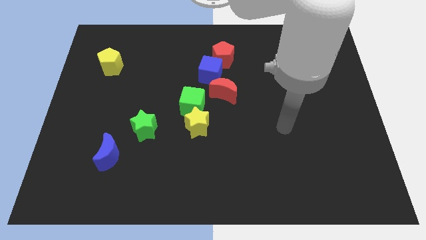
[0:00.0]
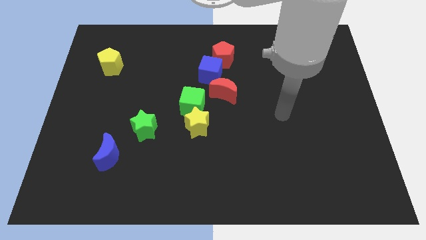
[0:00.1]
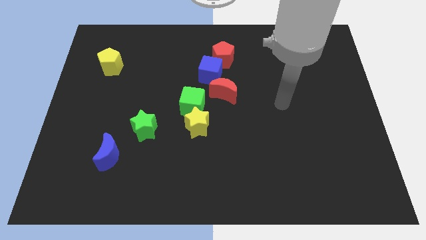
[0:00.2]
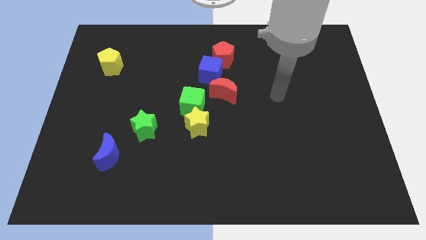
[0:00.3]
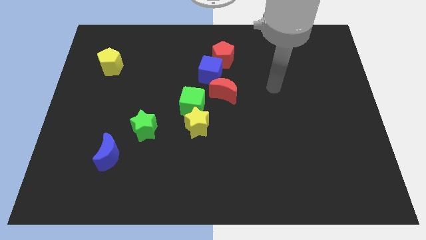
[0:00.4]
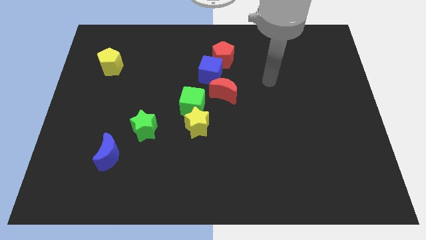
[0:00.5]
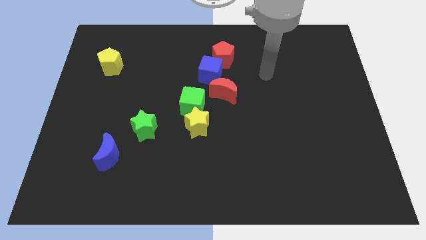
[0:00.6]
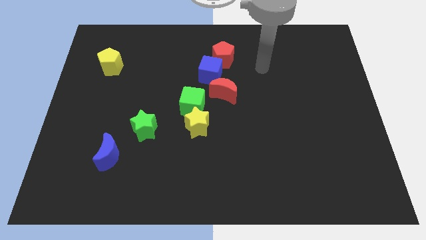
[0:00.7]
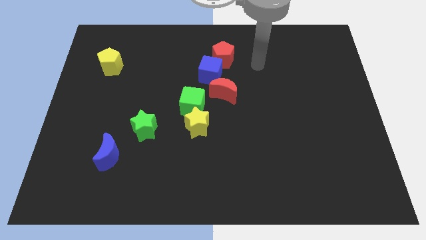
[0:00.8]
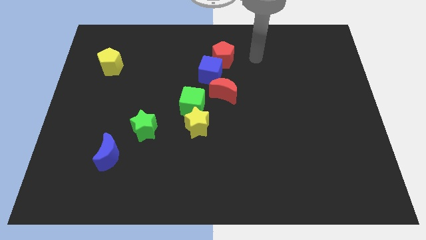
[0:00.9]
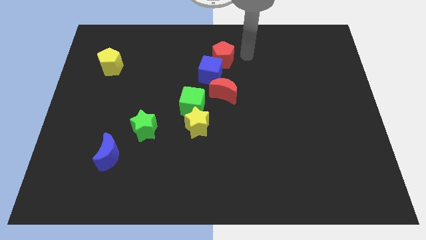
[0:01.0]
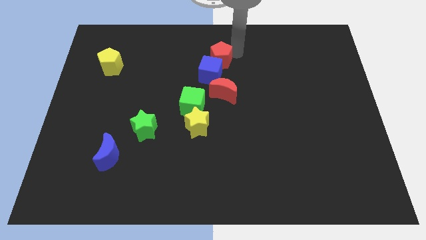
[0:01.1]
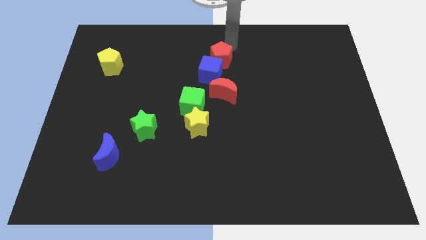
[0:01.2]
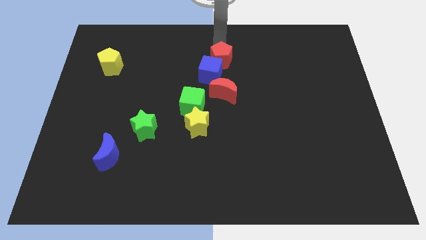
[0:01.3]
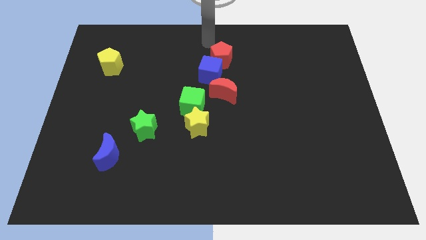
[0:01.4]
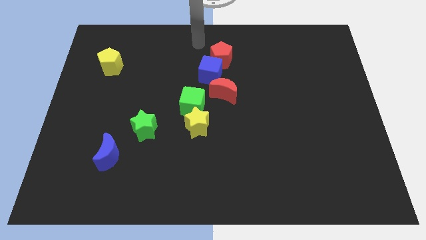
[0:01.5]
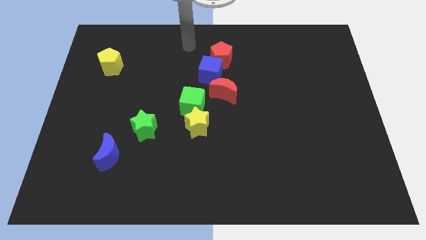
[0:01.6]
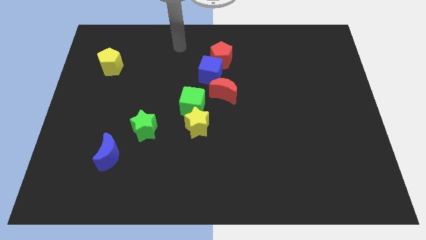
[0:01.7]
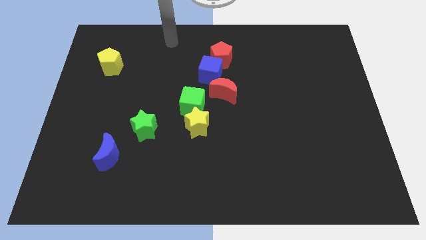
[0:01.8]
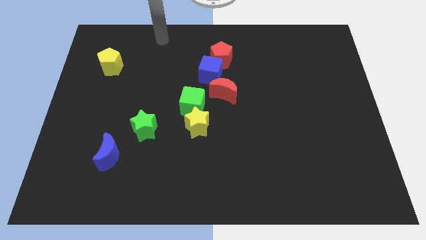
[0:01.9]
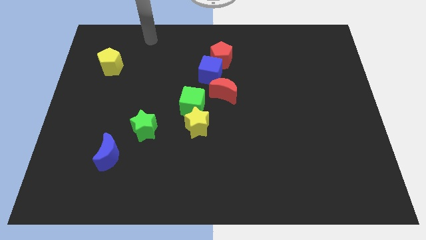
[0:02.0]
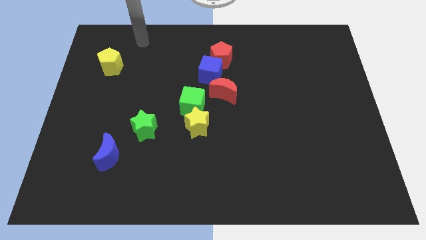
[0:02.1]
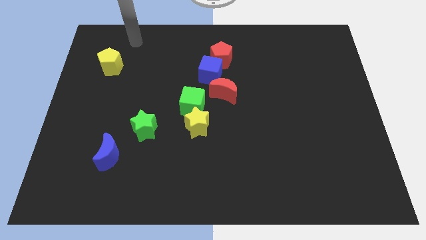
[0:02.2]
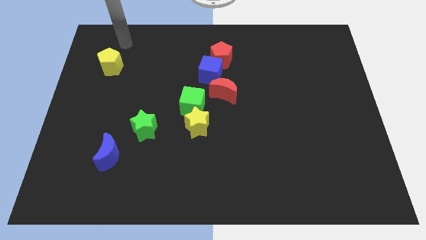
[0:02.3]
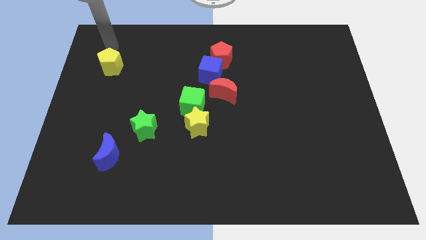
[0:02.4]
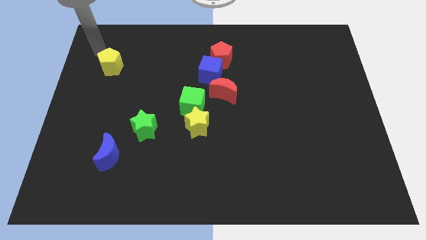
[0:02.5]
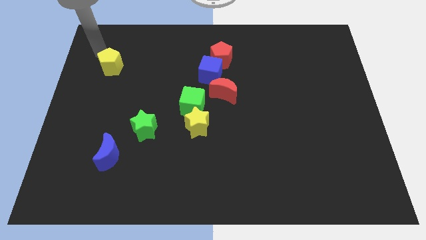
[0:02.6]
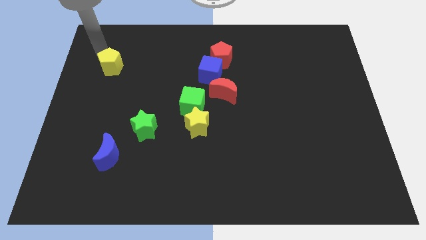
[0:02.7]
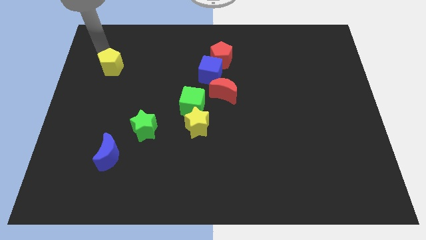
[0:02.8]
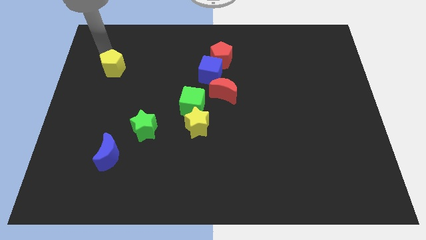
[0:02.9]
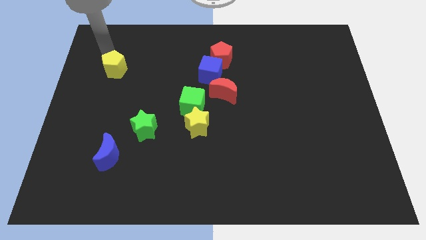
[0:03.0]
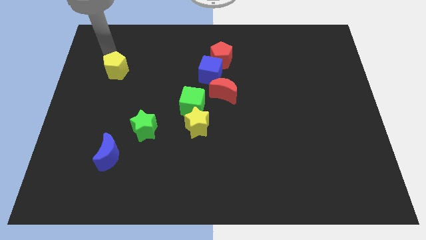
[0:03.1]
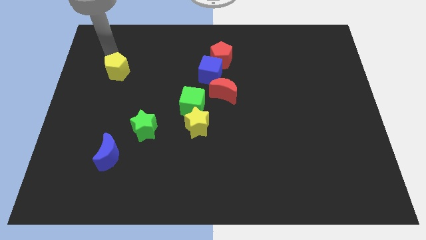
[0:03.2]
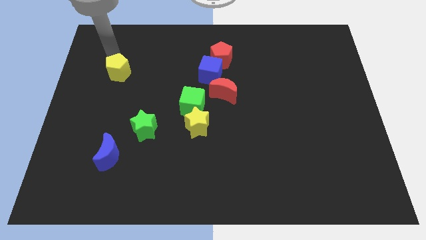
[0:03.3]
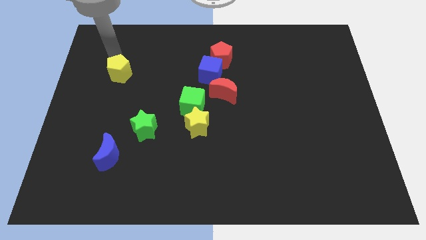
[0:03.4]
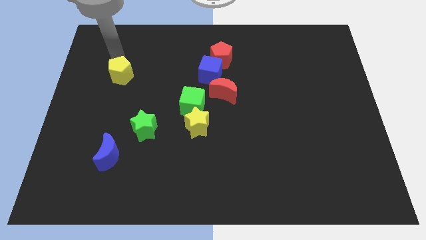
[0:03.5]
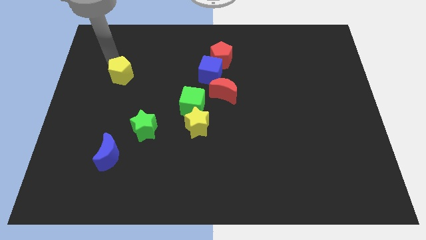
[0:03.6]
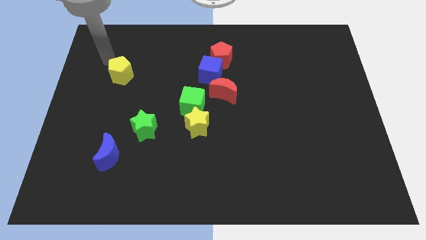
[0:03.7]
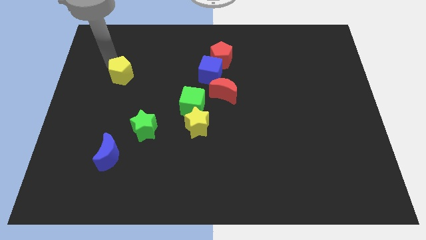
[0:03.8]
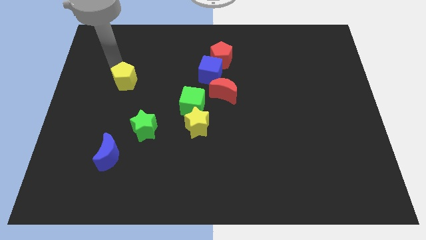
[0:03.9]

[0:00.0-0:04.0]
slide the yellow pentagon downwards and to the right diagonally a little

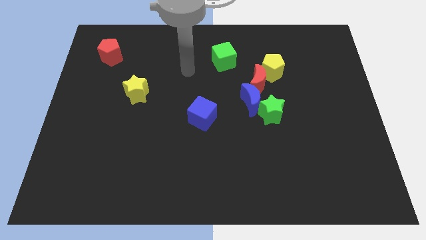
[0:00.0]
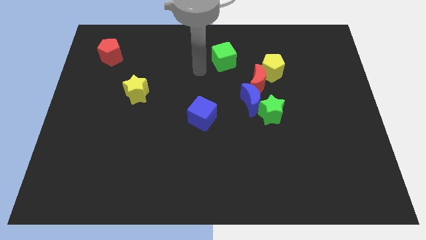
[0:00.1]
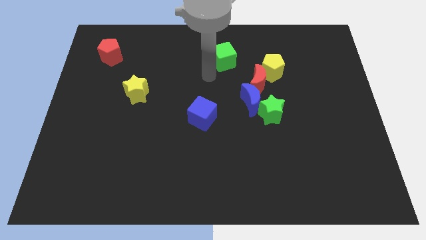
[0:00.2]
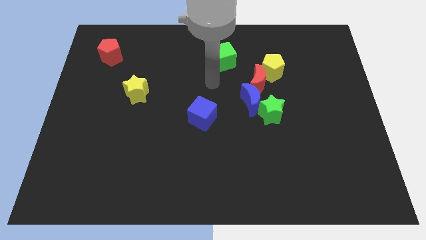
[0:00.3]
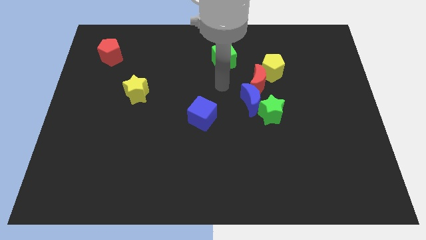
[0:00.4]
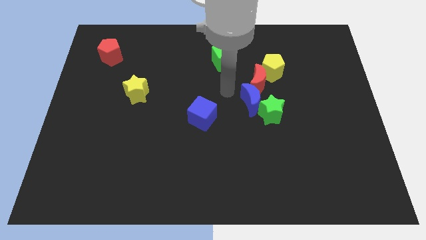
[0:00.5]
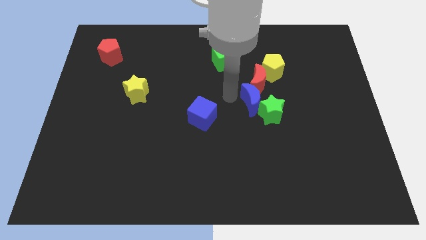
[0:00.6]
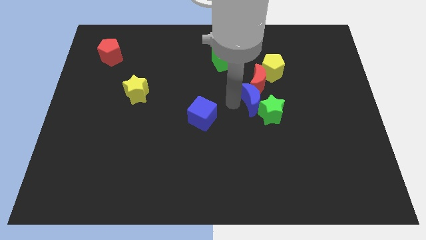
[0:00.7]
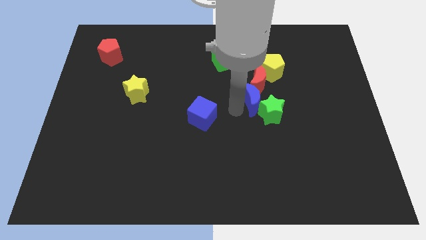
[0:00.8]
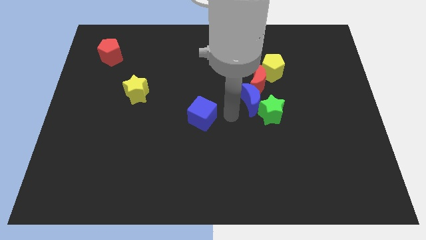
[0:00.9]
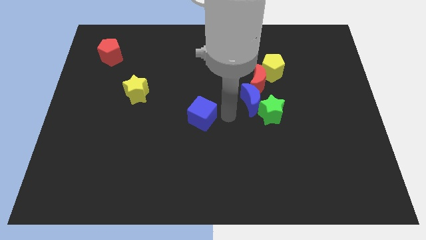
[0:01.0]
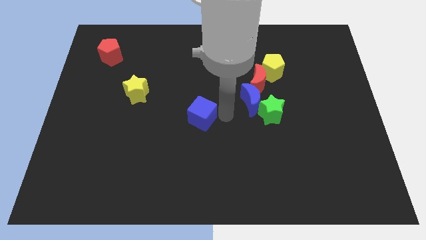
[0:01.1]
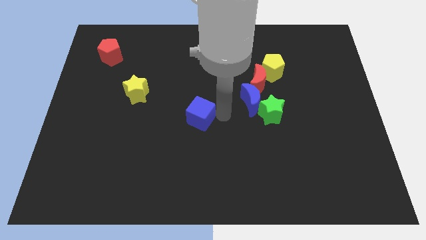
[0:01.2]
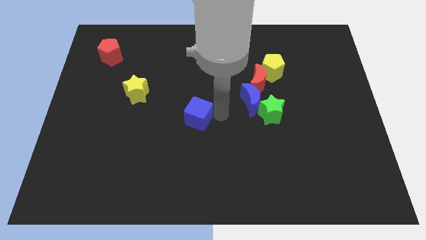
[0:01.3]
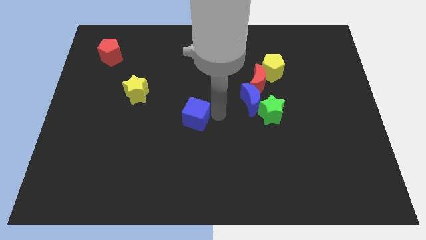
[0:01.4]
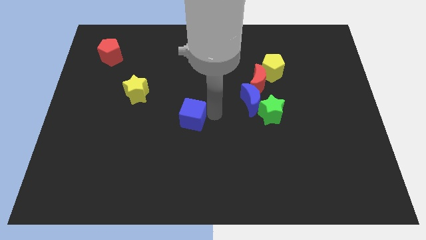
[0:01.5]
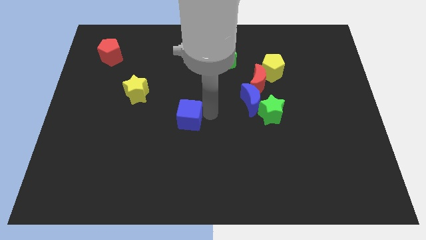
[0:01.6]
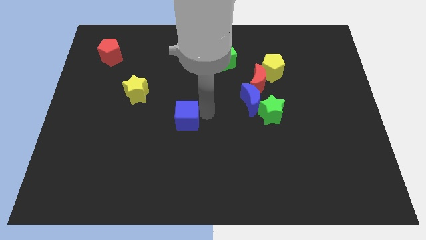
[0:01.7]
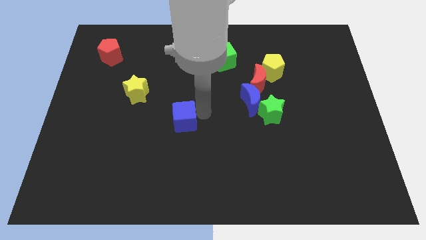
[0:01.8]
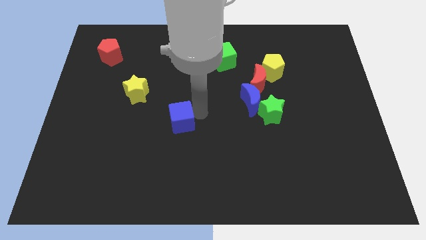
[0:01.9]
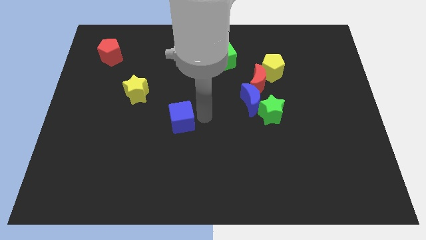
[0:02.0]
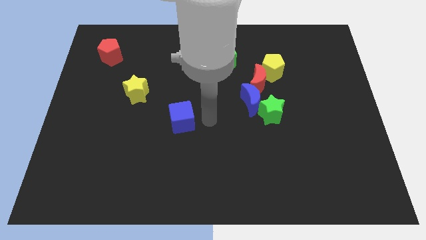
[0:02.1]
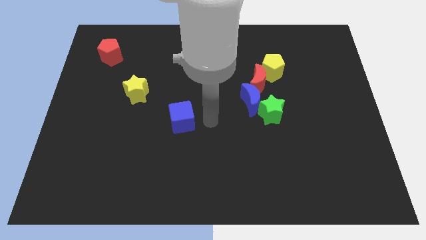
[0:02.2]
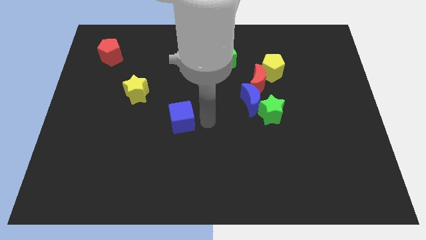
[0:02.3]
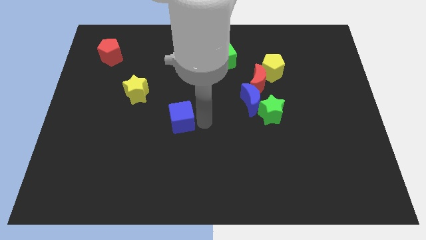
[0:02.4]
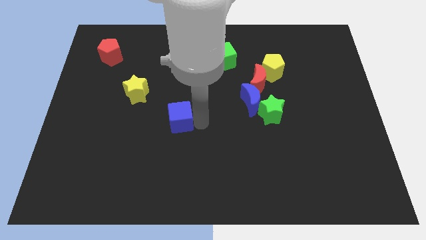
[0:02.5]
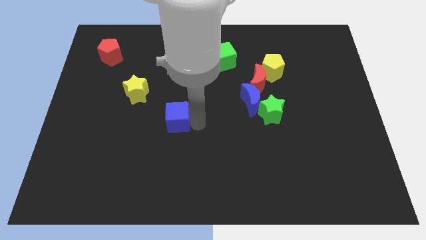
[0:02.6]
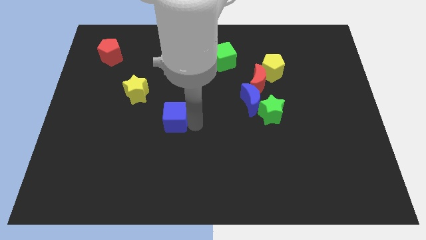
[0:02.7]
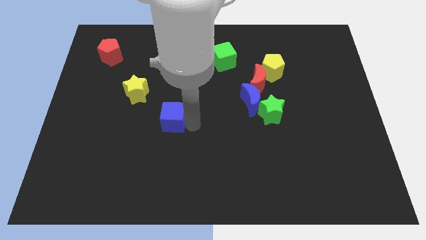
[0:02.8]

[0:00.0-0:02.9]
slightly slide the blue cube to the left

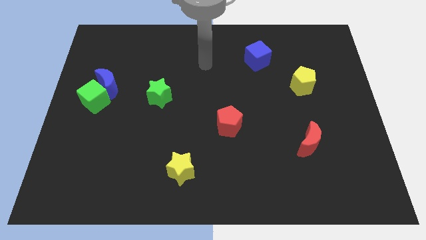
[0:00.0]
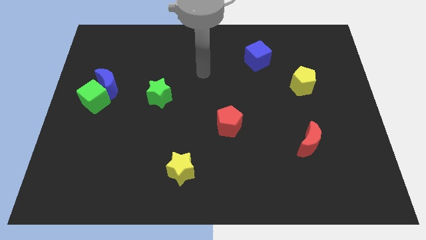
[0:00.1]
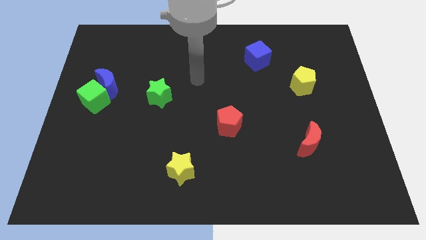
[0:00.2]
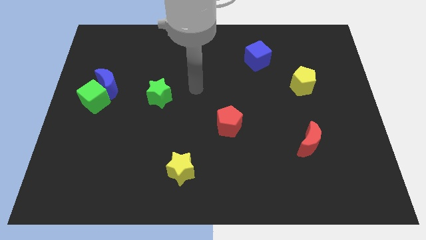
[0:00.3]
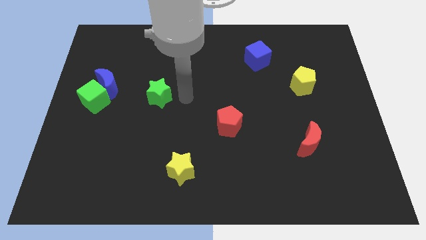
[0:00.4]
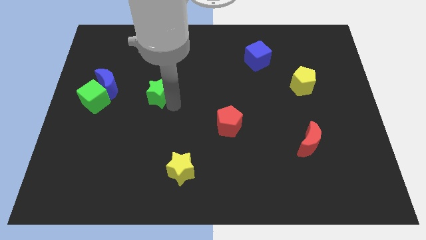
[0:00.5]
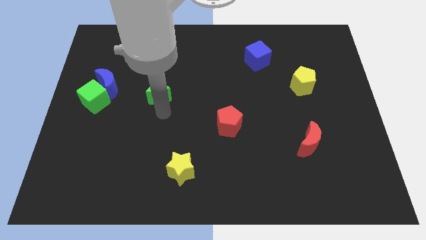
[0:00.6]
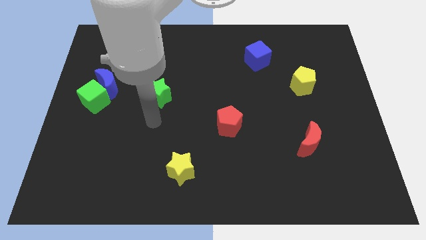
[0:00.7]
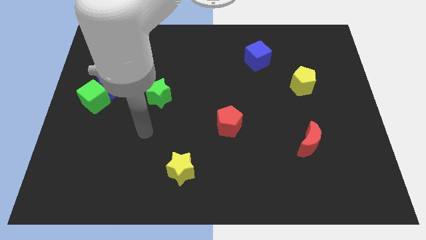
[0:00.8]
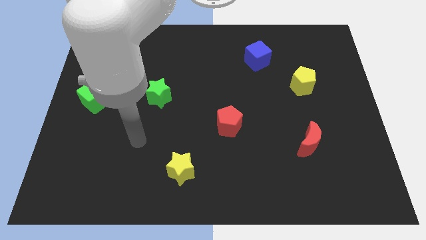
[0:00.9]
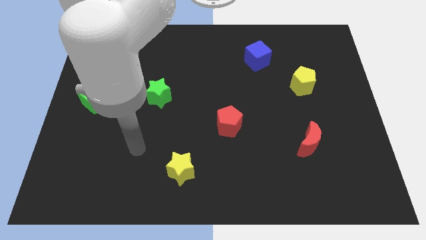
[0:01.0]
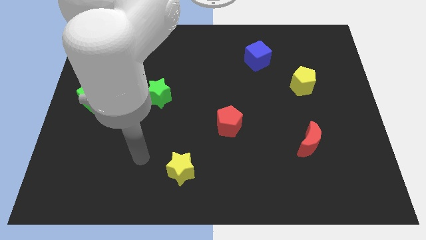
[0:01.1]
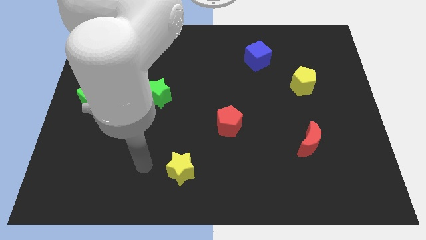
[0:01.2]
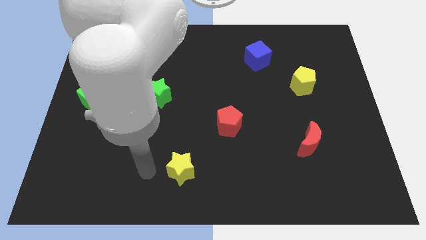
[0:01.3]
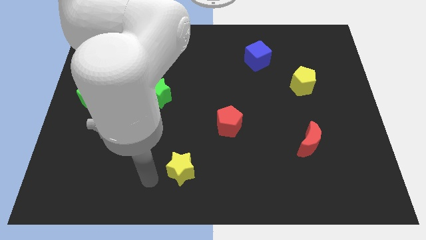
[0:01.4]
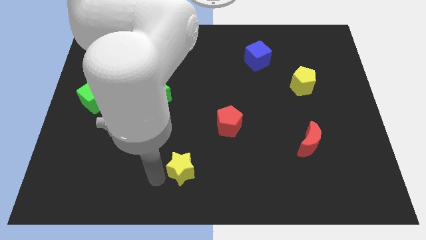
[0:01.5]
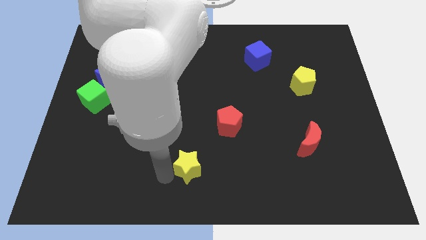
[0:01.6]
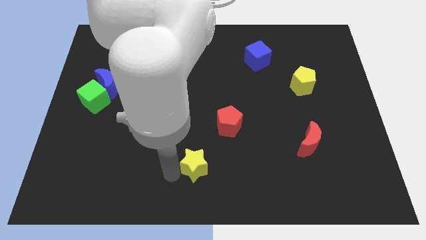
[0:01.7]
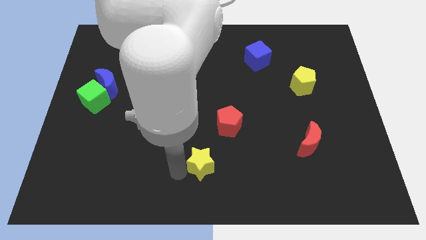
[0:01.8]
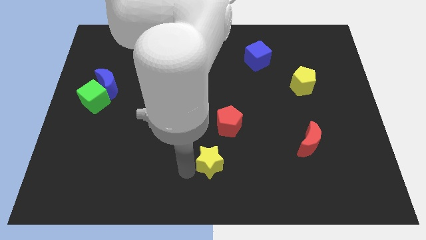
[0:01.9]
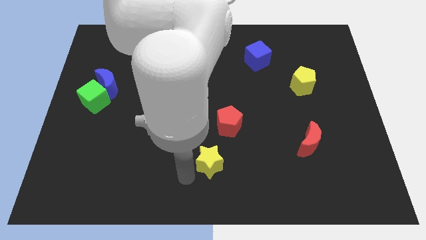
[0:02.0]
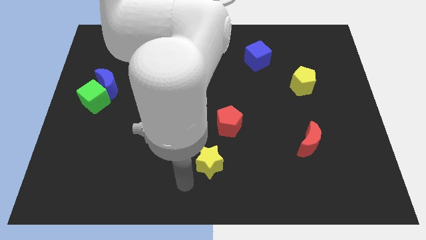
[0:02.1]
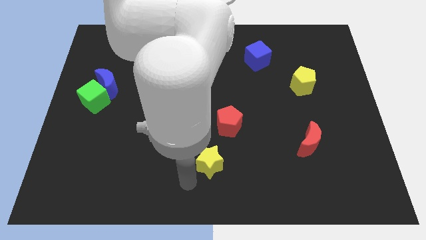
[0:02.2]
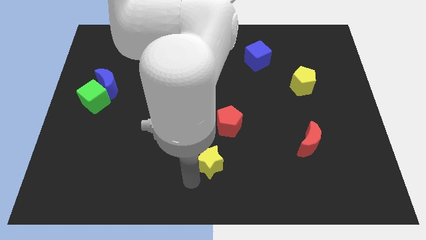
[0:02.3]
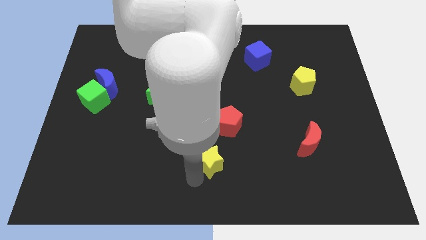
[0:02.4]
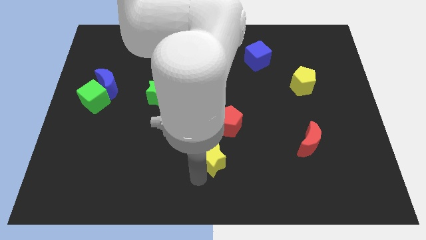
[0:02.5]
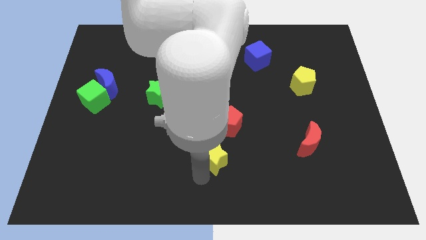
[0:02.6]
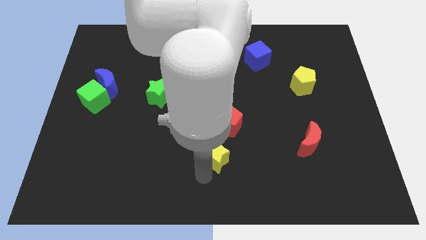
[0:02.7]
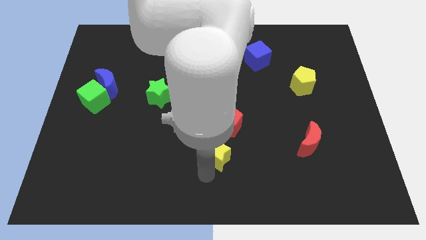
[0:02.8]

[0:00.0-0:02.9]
slide the yellow star a little bit upwards and then to the right
